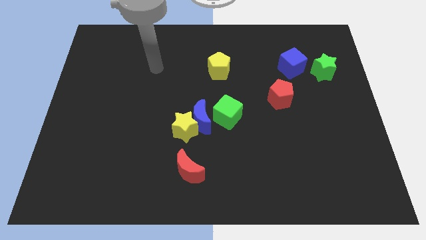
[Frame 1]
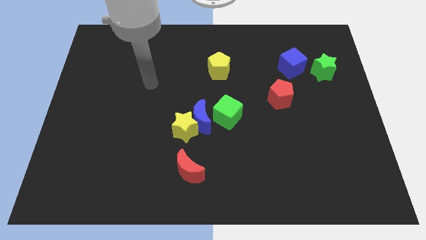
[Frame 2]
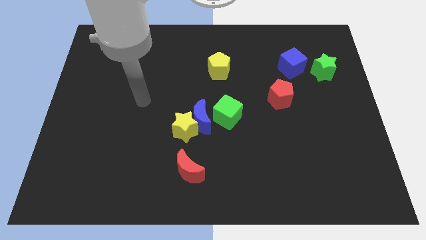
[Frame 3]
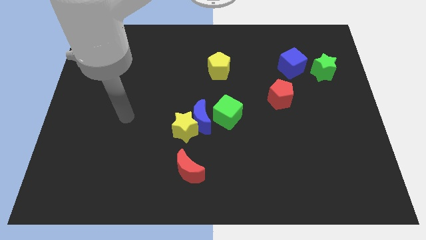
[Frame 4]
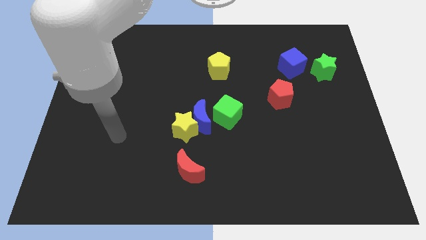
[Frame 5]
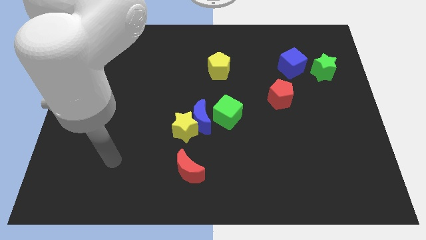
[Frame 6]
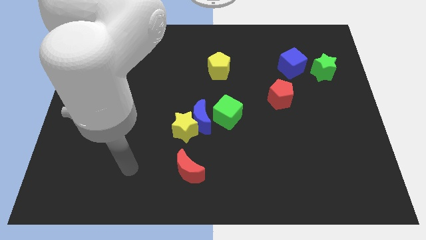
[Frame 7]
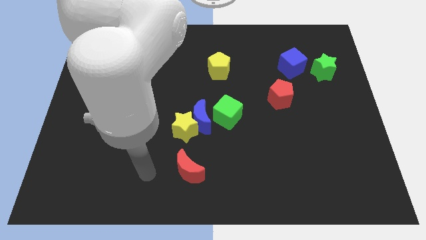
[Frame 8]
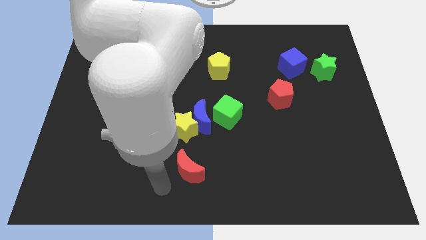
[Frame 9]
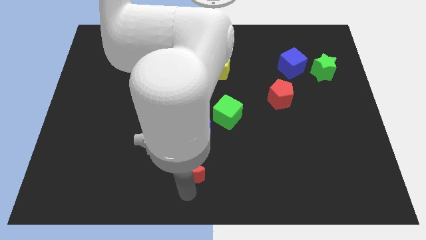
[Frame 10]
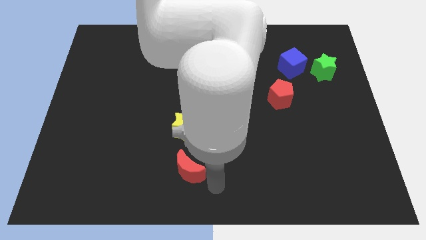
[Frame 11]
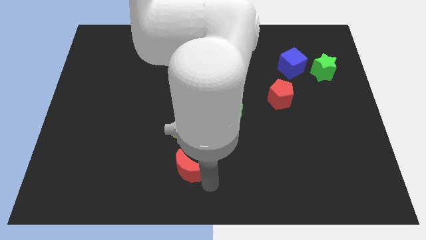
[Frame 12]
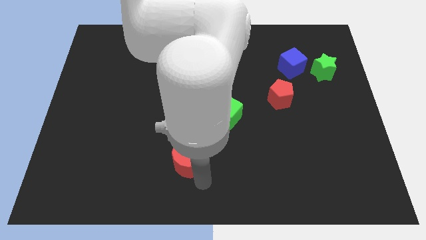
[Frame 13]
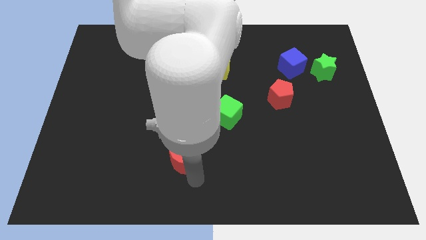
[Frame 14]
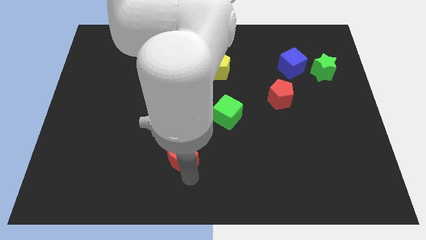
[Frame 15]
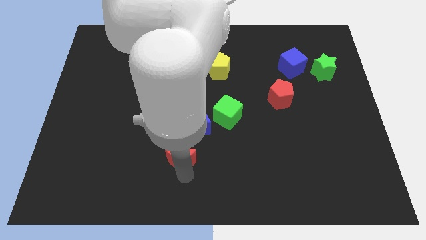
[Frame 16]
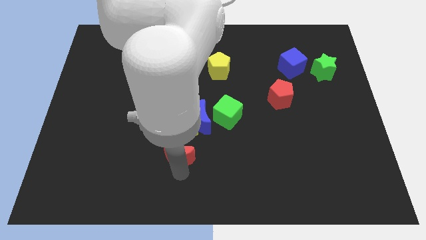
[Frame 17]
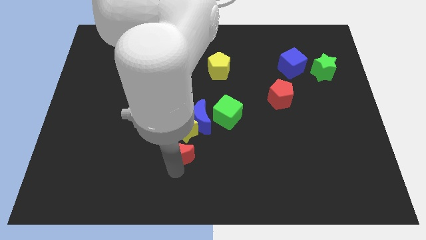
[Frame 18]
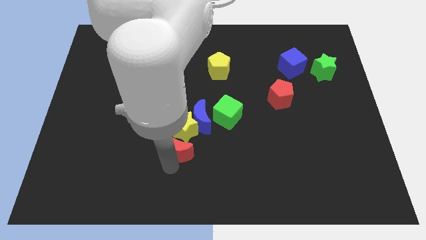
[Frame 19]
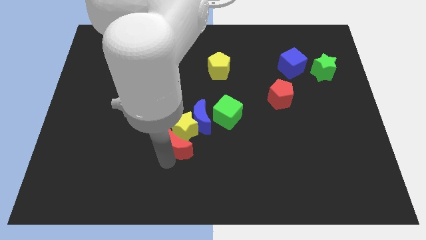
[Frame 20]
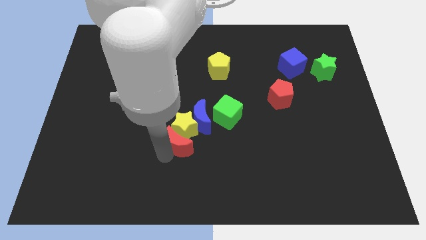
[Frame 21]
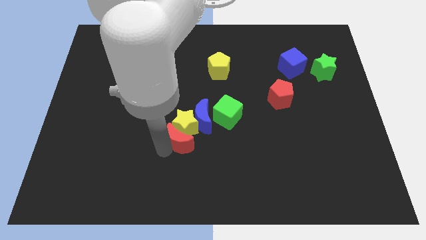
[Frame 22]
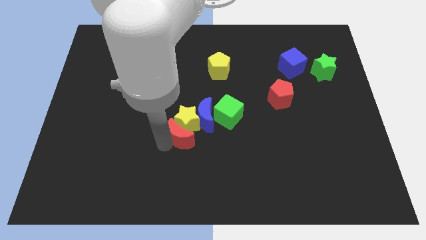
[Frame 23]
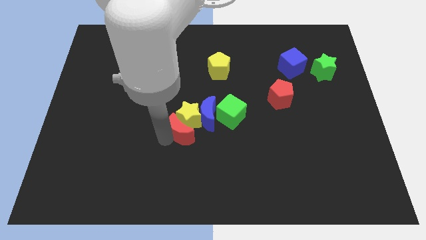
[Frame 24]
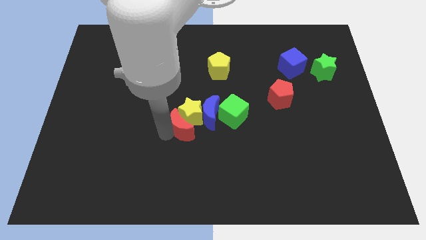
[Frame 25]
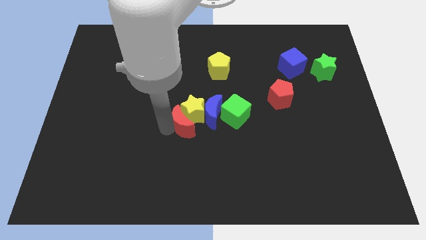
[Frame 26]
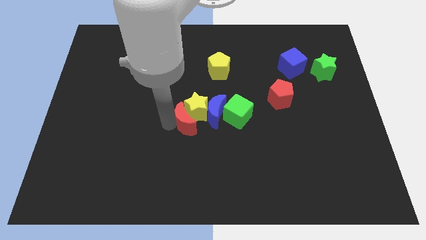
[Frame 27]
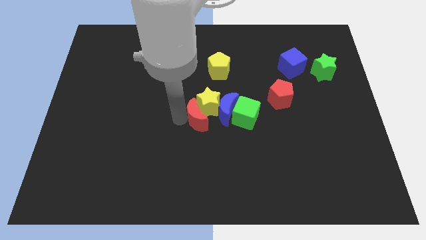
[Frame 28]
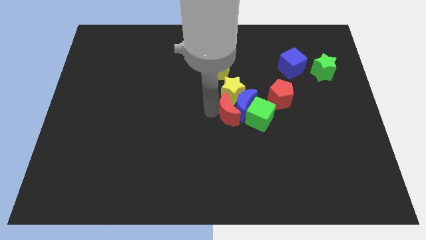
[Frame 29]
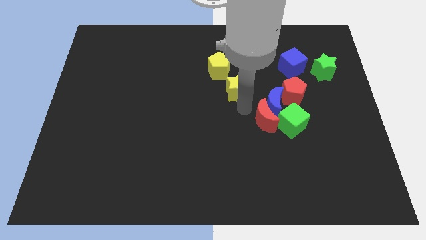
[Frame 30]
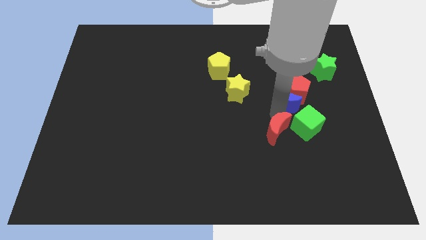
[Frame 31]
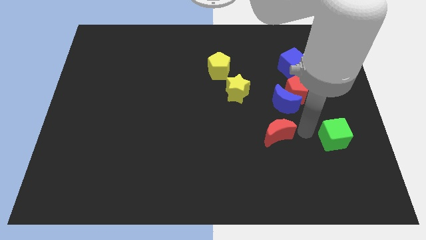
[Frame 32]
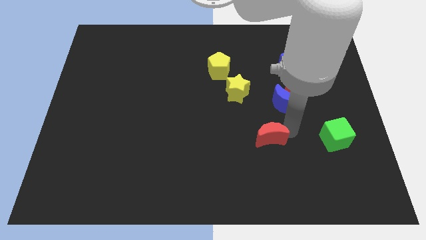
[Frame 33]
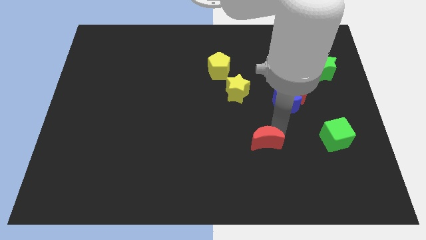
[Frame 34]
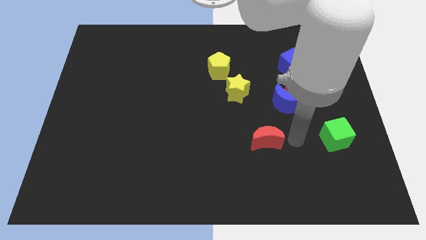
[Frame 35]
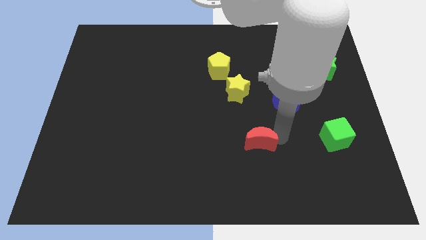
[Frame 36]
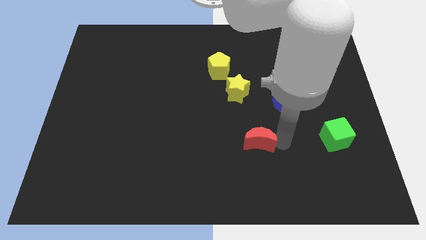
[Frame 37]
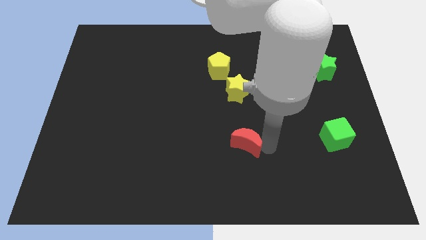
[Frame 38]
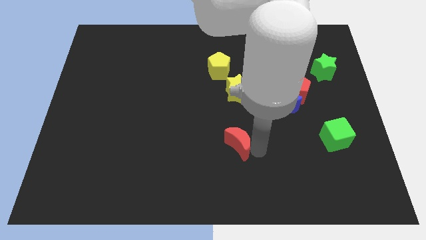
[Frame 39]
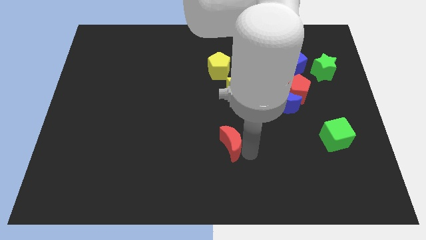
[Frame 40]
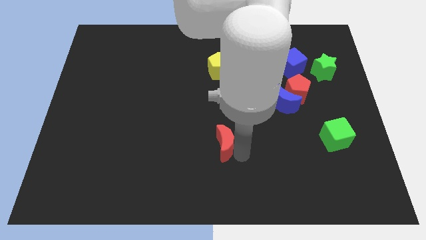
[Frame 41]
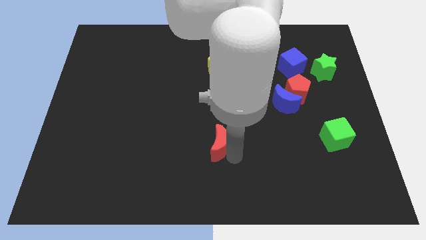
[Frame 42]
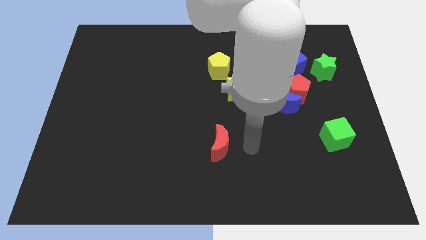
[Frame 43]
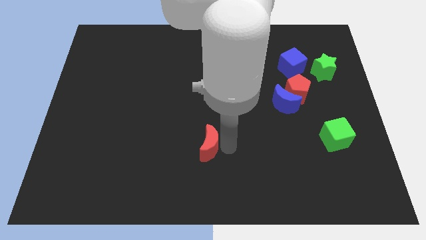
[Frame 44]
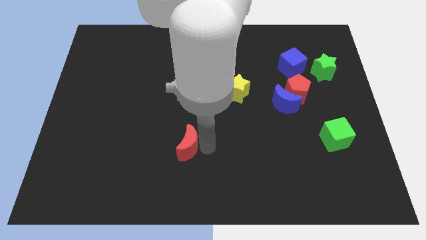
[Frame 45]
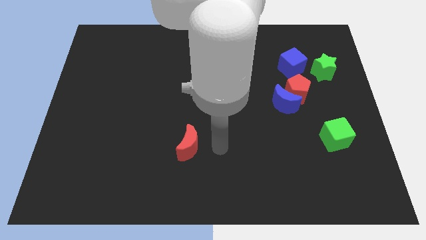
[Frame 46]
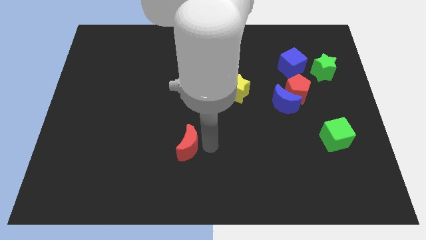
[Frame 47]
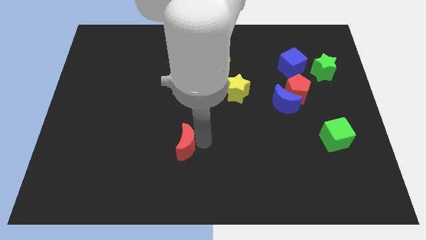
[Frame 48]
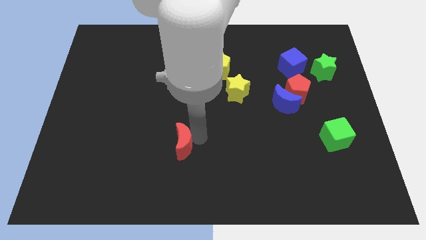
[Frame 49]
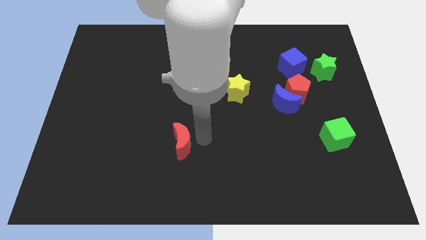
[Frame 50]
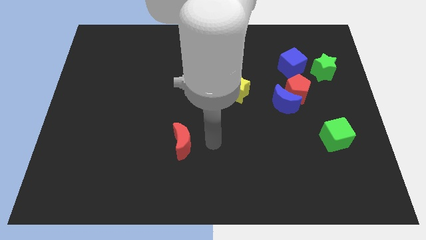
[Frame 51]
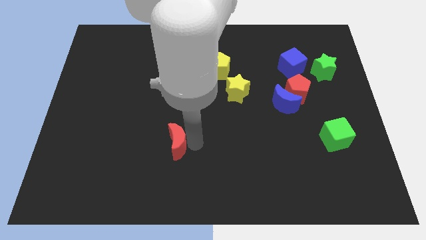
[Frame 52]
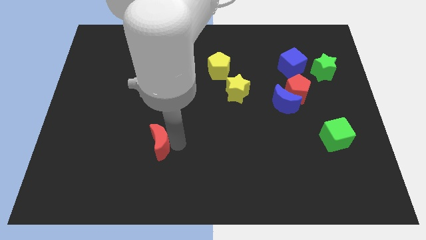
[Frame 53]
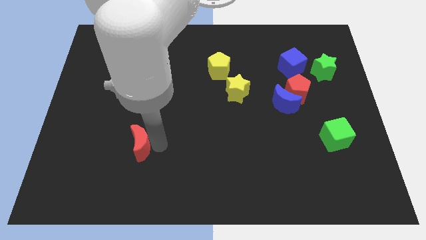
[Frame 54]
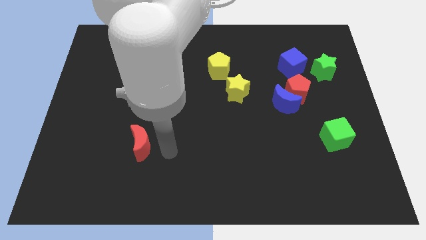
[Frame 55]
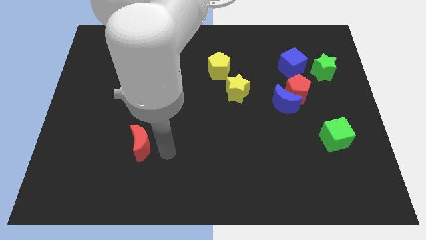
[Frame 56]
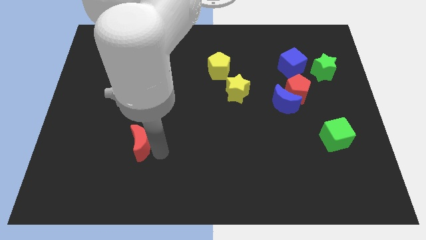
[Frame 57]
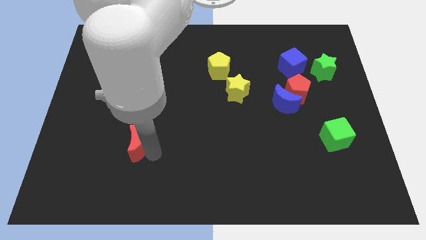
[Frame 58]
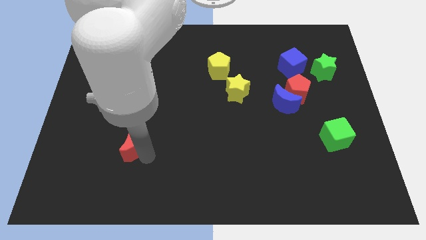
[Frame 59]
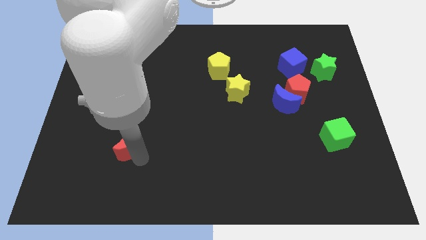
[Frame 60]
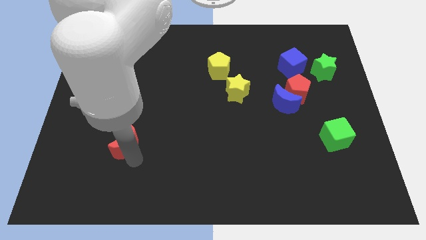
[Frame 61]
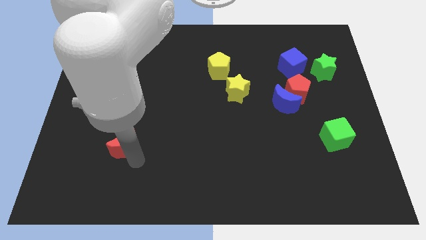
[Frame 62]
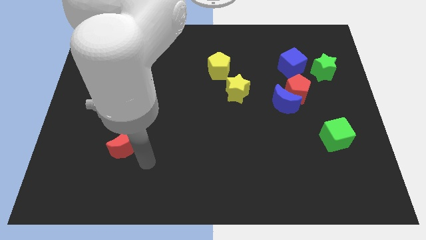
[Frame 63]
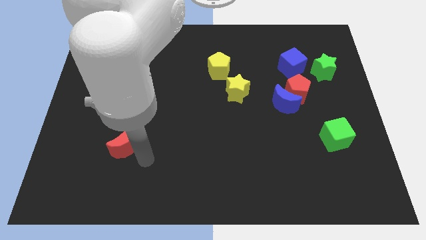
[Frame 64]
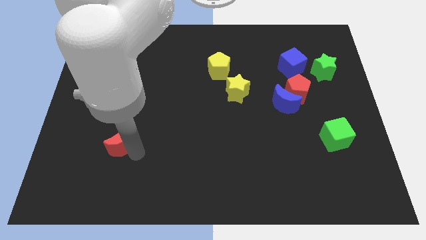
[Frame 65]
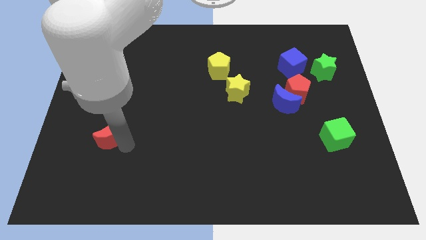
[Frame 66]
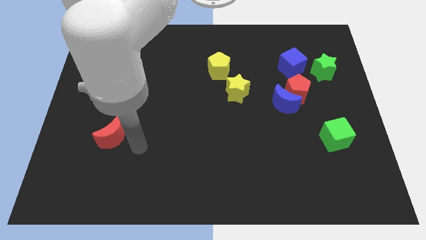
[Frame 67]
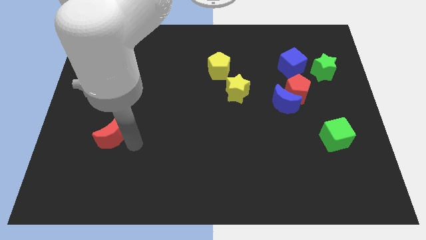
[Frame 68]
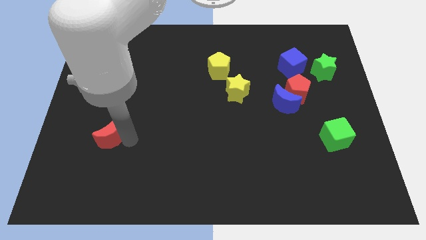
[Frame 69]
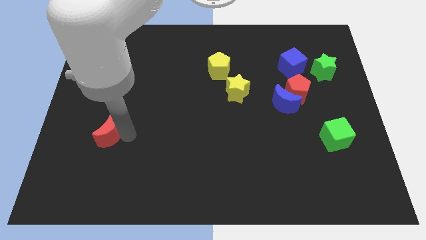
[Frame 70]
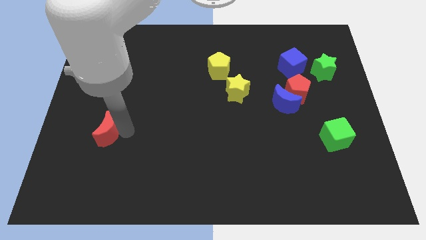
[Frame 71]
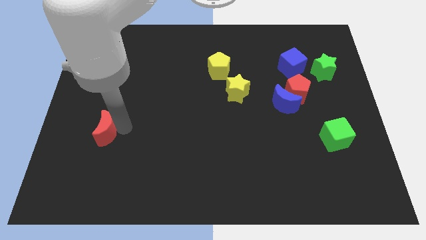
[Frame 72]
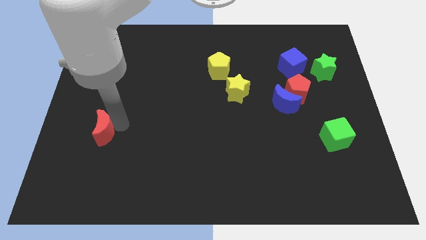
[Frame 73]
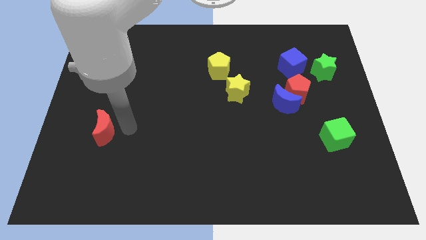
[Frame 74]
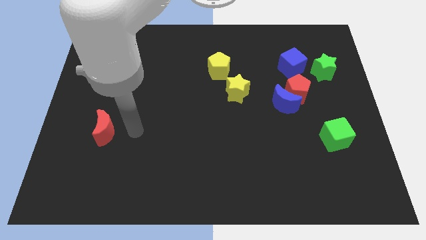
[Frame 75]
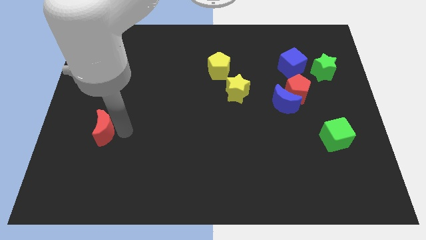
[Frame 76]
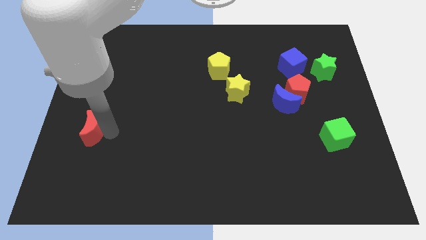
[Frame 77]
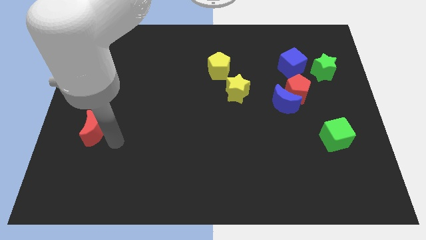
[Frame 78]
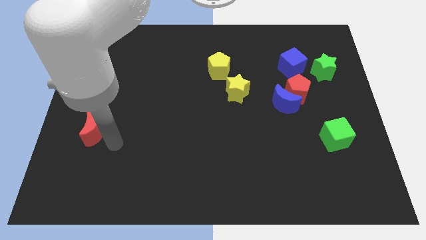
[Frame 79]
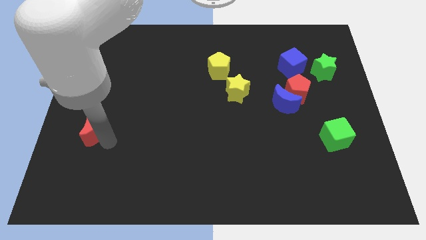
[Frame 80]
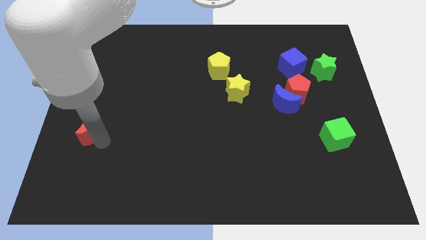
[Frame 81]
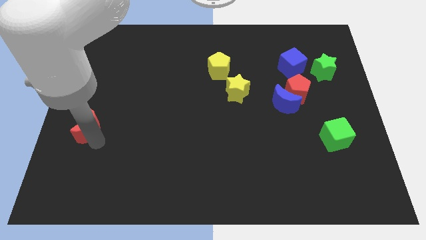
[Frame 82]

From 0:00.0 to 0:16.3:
put the red moon to the center left
